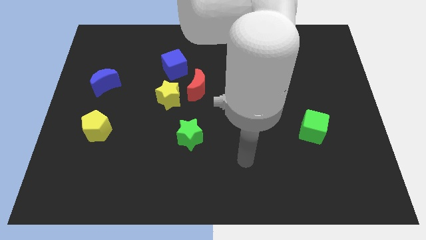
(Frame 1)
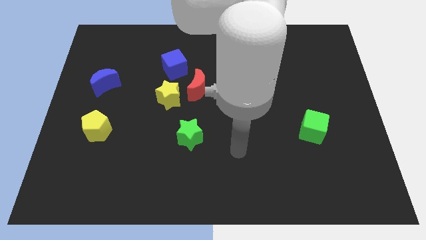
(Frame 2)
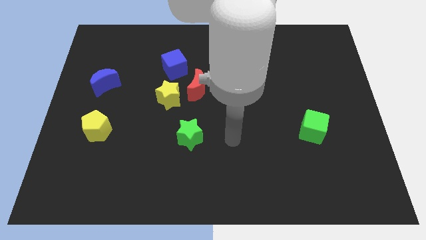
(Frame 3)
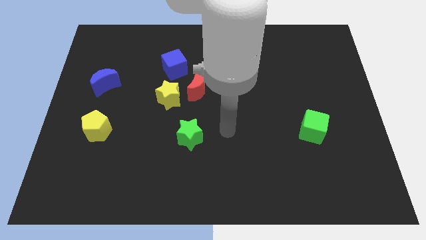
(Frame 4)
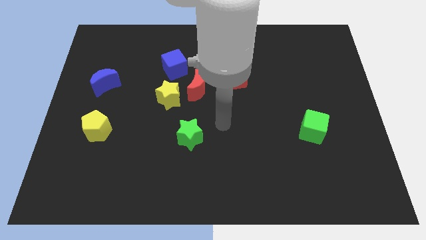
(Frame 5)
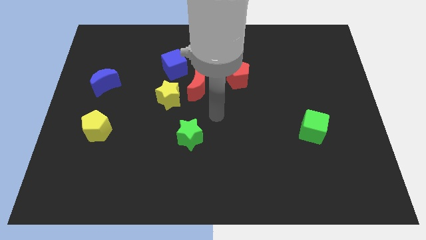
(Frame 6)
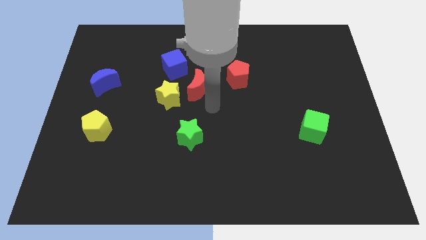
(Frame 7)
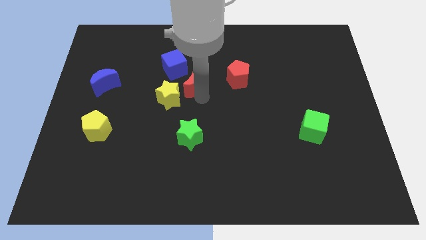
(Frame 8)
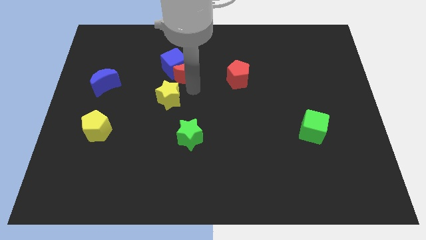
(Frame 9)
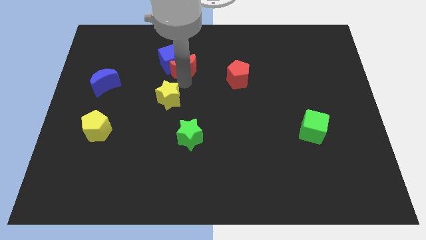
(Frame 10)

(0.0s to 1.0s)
pull the yellow star apart from the red moon

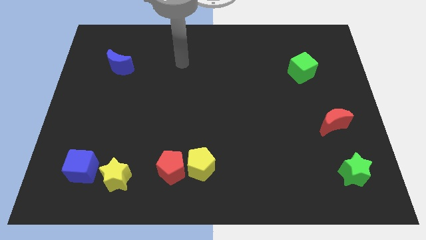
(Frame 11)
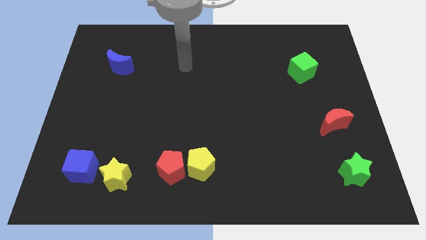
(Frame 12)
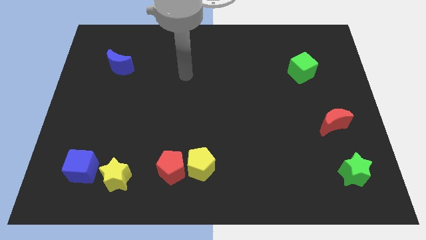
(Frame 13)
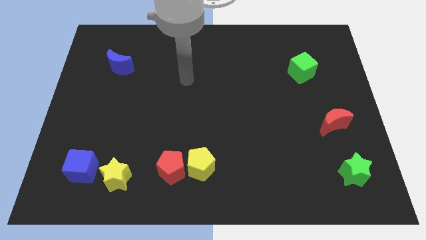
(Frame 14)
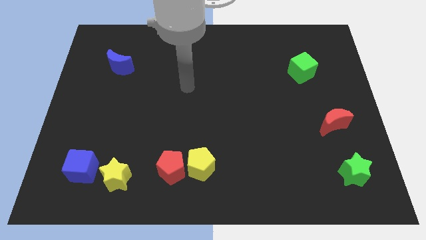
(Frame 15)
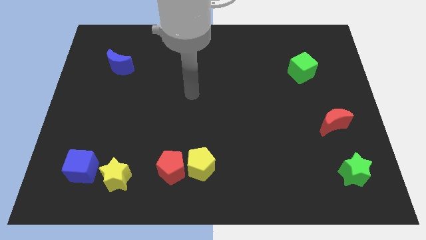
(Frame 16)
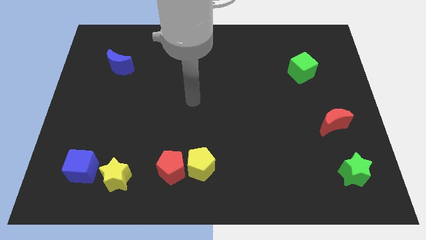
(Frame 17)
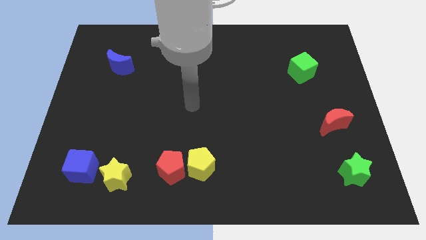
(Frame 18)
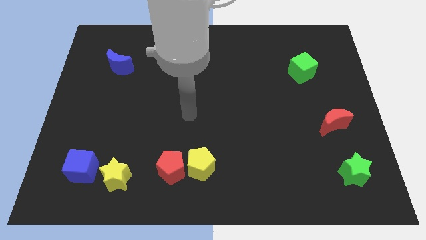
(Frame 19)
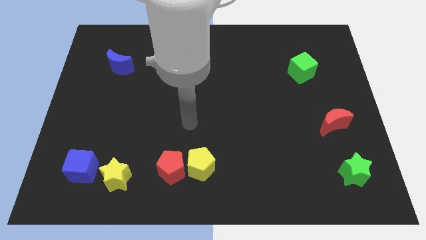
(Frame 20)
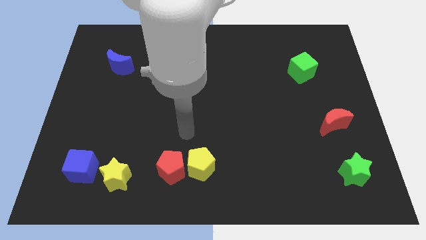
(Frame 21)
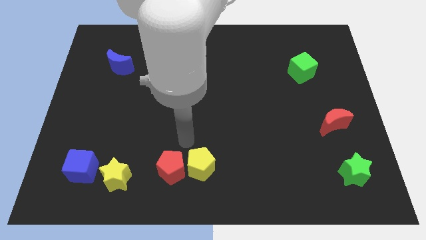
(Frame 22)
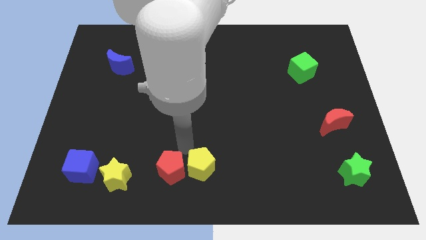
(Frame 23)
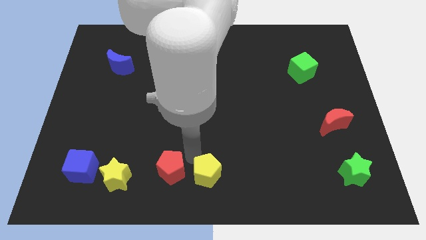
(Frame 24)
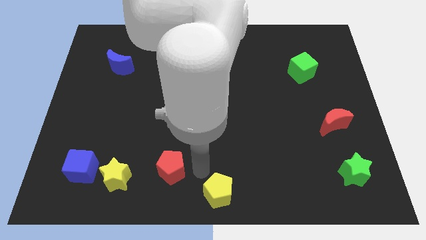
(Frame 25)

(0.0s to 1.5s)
separate the red pentagon from the yellow pentagon

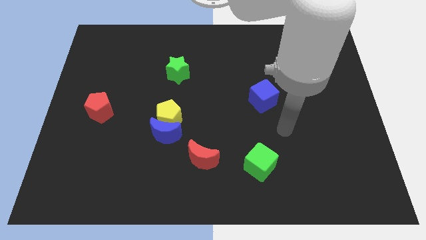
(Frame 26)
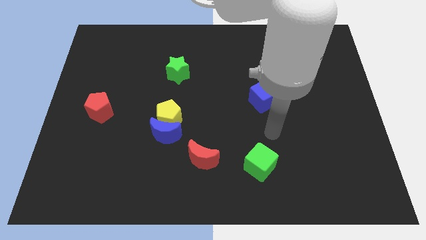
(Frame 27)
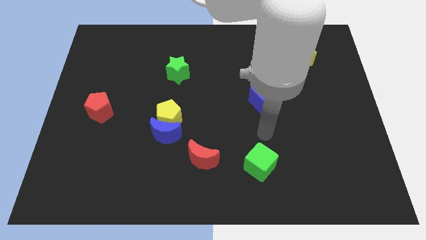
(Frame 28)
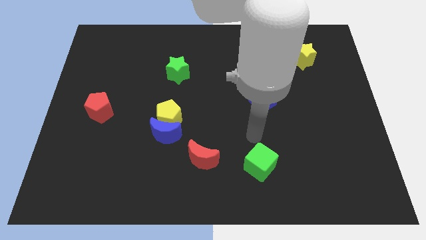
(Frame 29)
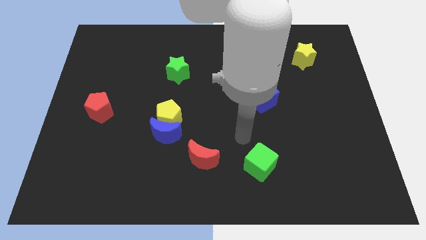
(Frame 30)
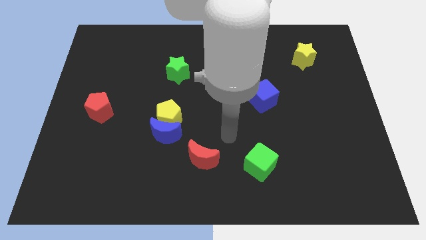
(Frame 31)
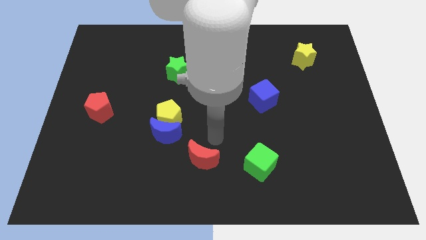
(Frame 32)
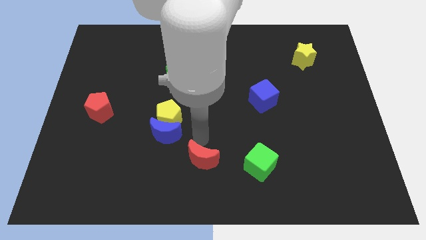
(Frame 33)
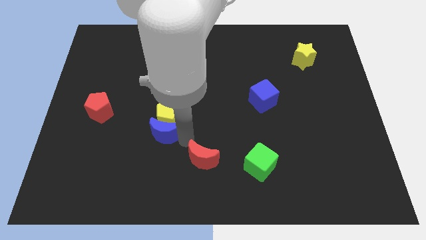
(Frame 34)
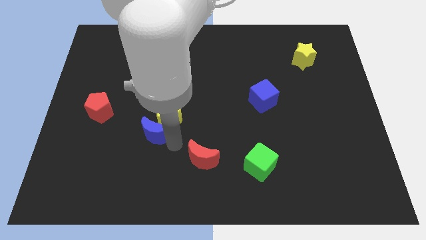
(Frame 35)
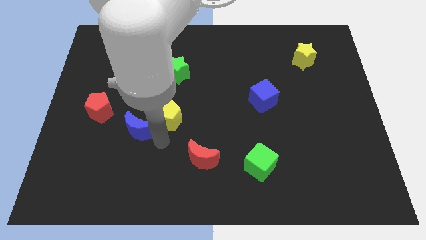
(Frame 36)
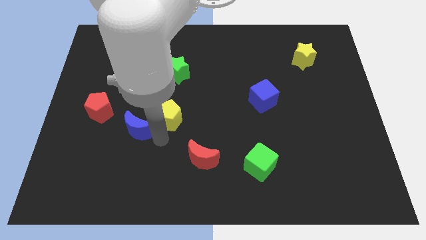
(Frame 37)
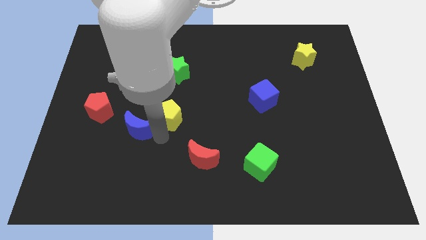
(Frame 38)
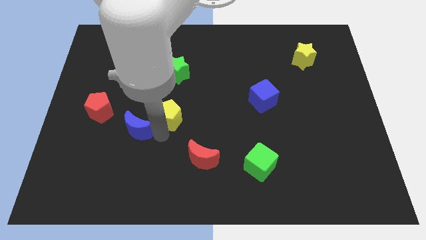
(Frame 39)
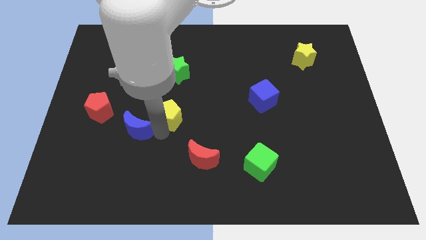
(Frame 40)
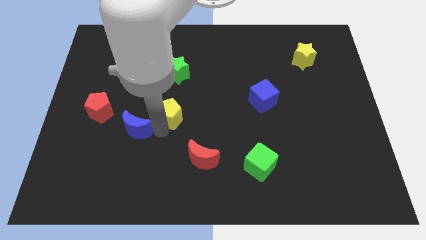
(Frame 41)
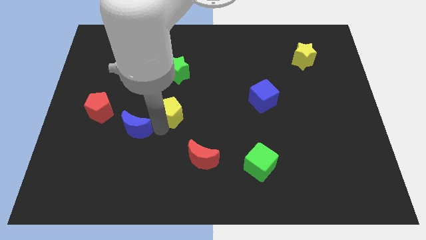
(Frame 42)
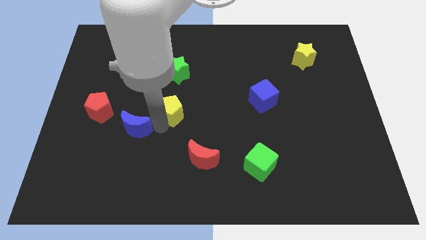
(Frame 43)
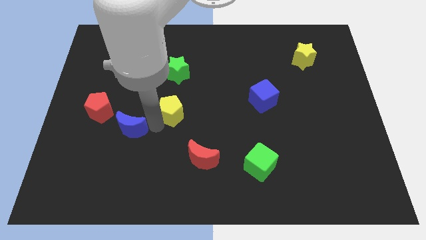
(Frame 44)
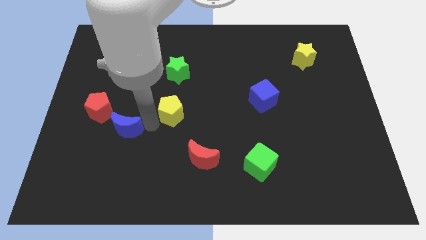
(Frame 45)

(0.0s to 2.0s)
separate the yellow pentagon from the blue moon

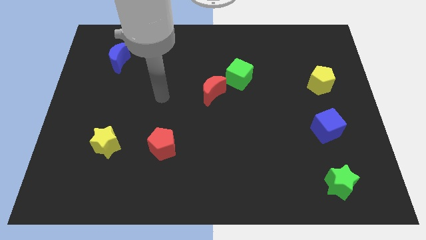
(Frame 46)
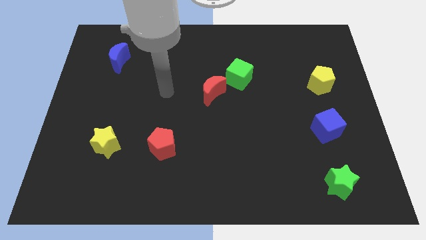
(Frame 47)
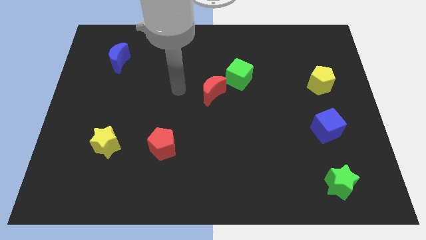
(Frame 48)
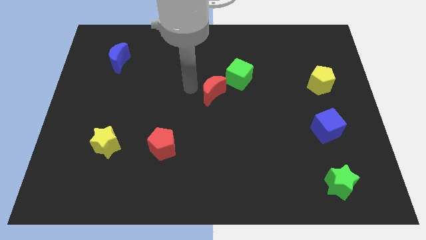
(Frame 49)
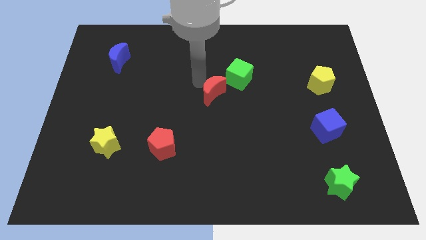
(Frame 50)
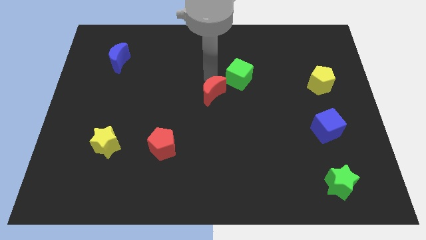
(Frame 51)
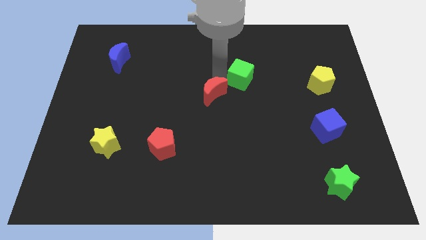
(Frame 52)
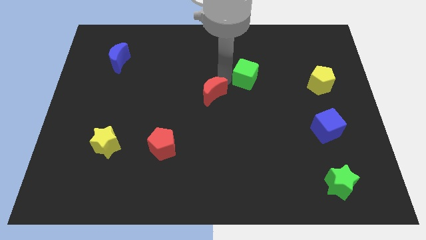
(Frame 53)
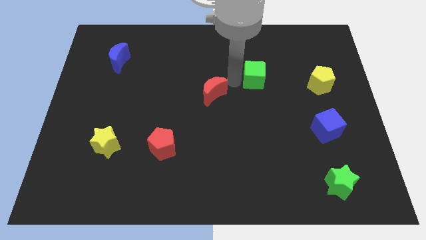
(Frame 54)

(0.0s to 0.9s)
pull the red moon apart from the green cube

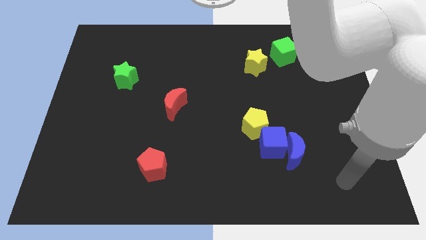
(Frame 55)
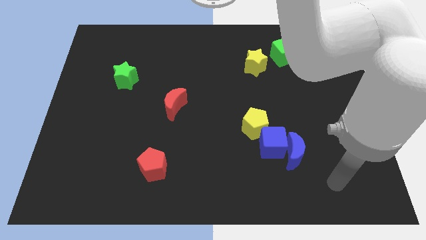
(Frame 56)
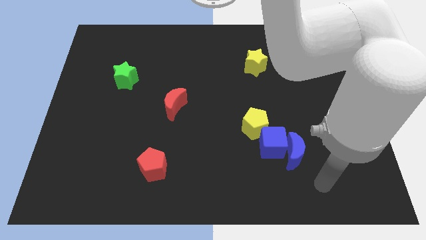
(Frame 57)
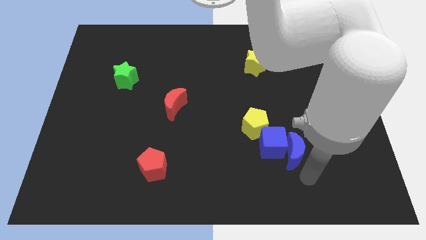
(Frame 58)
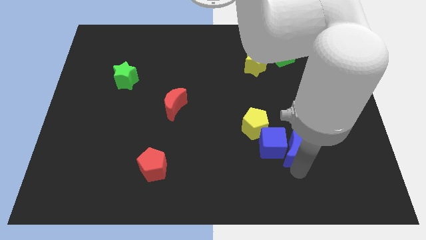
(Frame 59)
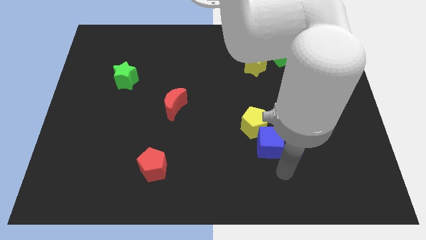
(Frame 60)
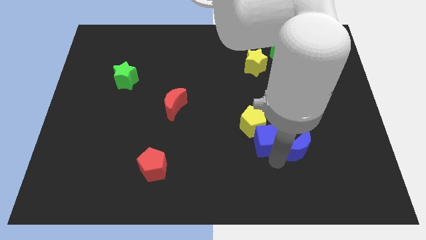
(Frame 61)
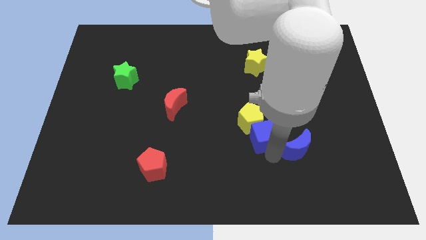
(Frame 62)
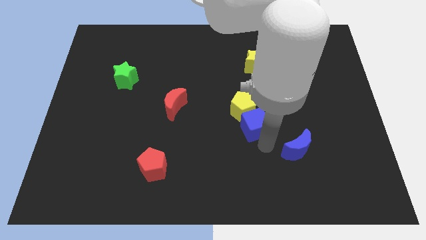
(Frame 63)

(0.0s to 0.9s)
separate the blue moon from the blue cube

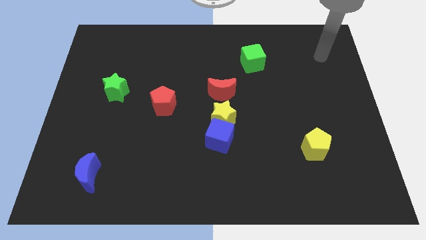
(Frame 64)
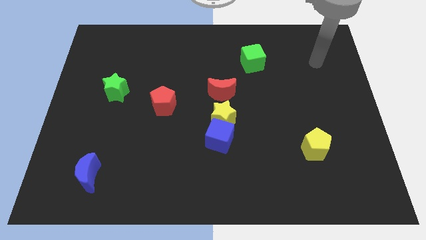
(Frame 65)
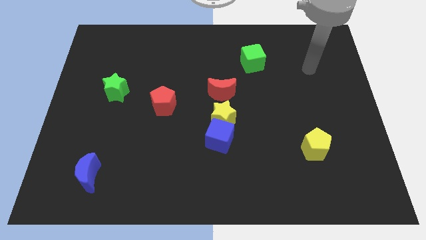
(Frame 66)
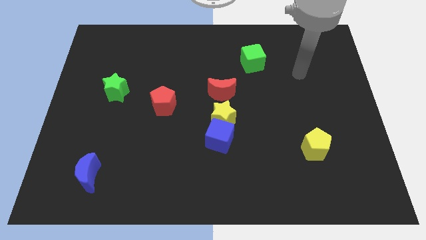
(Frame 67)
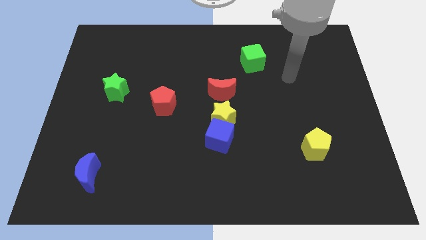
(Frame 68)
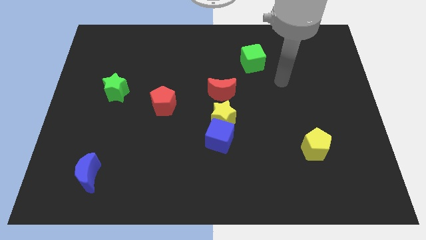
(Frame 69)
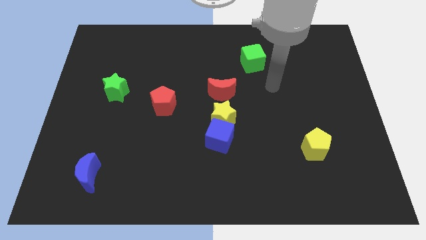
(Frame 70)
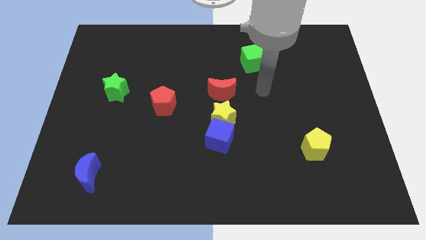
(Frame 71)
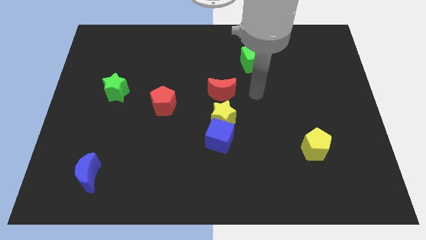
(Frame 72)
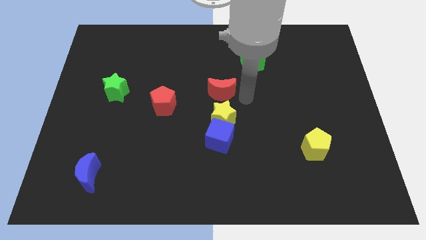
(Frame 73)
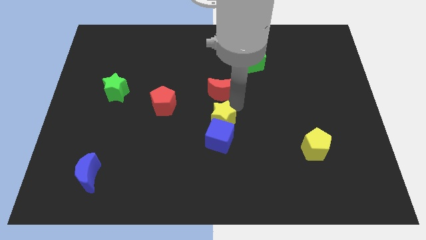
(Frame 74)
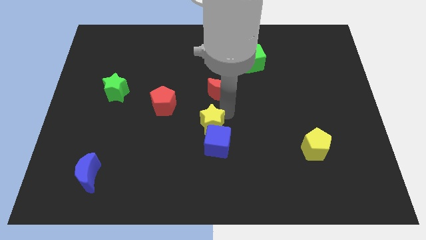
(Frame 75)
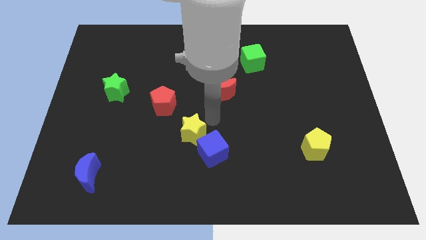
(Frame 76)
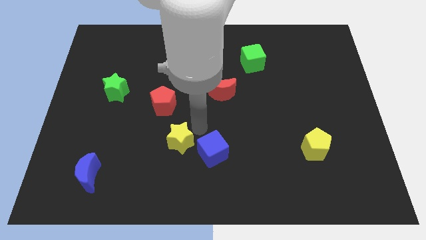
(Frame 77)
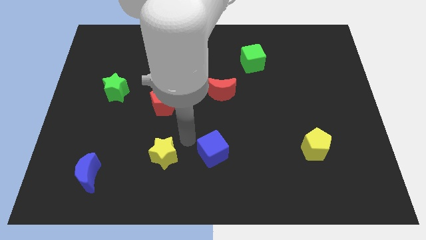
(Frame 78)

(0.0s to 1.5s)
pull the blue cube apart from the yellow star

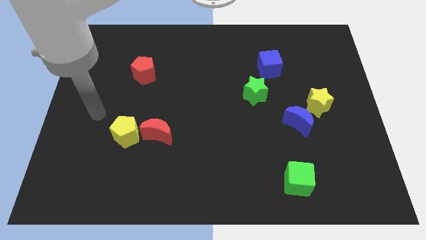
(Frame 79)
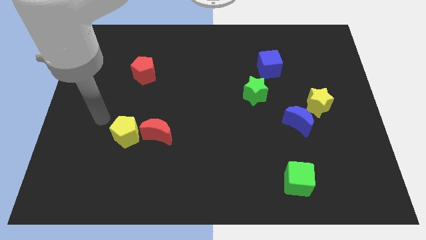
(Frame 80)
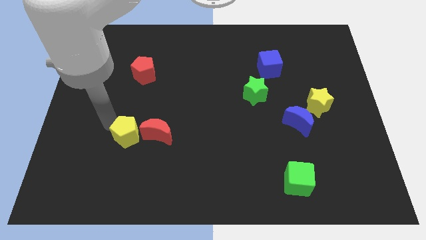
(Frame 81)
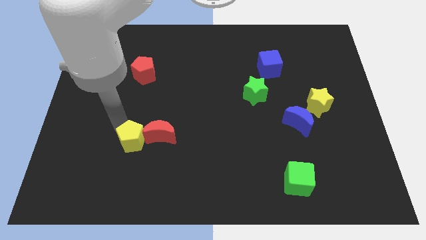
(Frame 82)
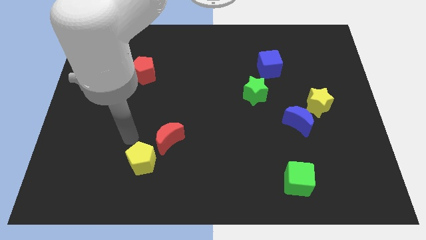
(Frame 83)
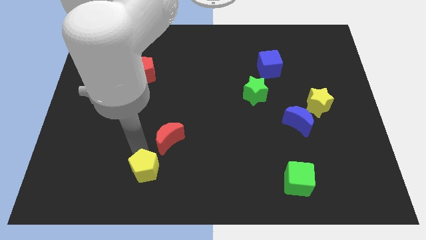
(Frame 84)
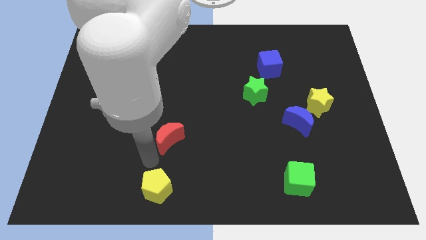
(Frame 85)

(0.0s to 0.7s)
separate the red moon from the yellow pentagon

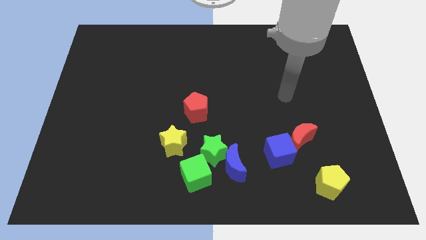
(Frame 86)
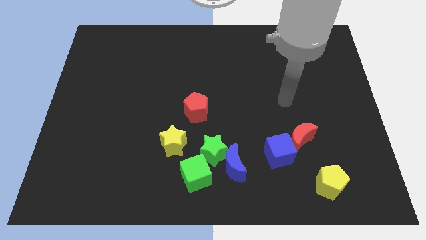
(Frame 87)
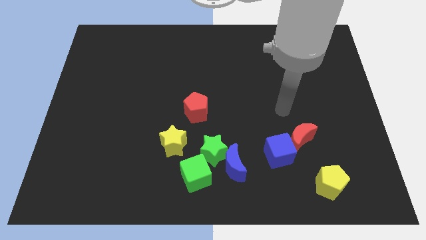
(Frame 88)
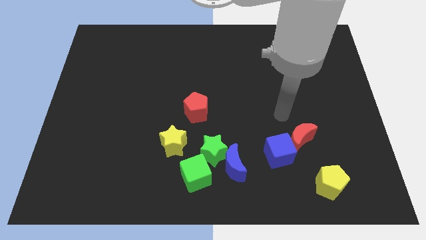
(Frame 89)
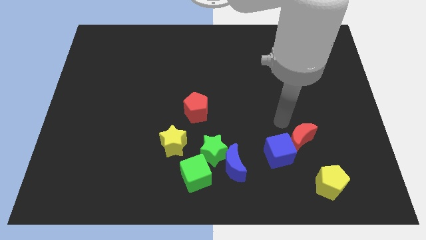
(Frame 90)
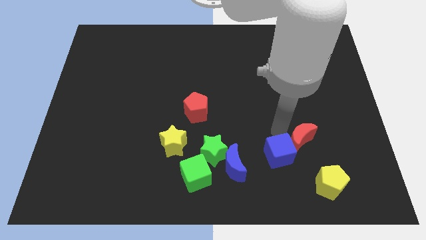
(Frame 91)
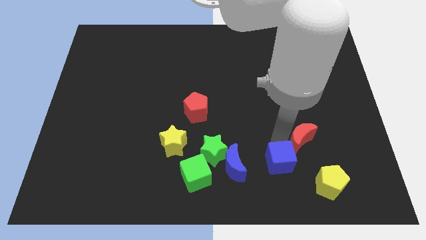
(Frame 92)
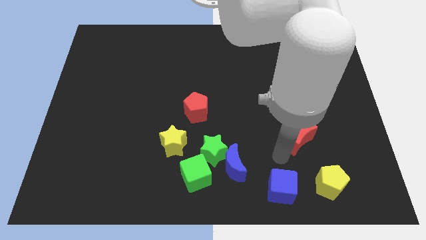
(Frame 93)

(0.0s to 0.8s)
move the red moon away from the blue cube

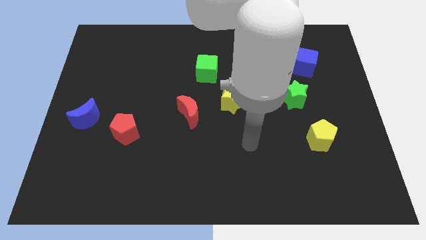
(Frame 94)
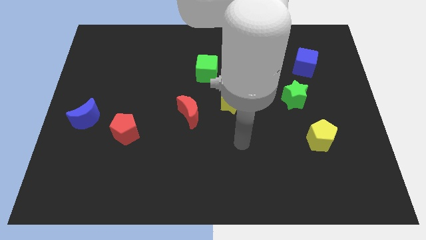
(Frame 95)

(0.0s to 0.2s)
move the red pentagon away from the blue moon

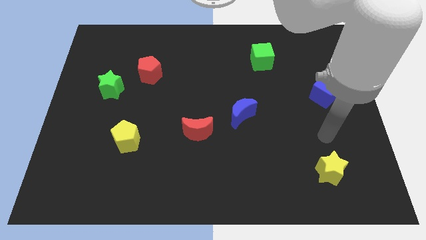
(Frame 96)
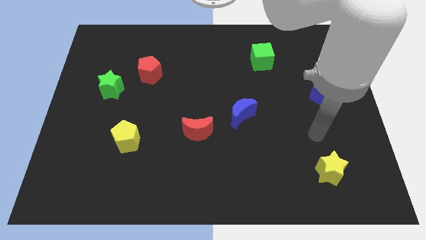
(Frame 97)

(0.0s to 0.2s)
move the red pentagon away from the green star
